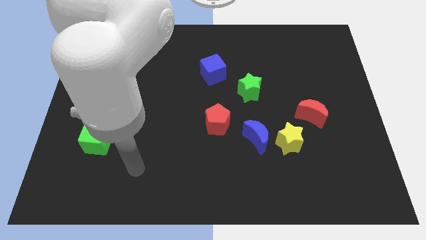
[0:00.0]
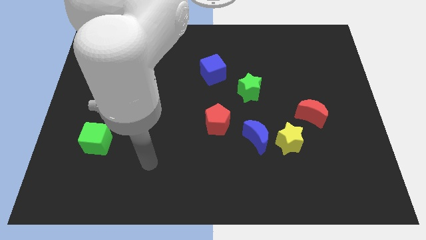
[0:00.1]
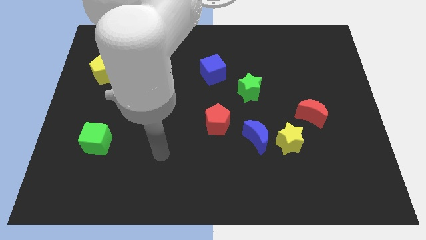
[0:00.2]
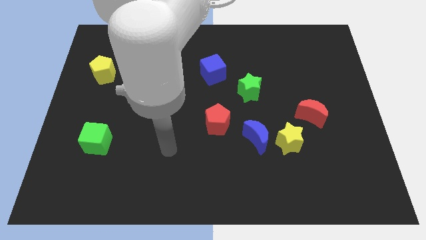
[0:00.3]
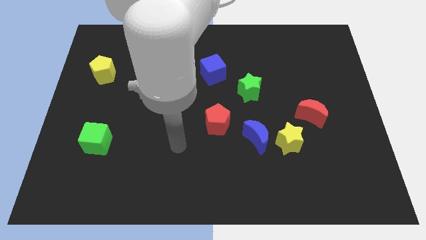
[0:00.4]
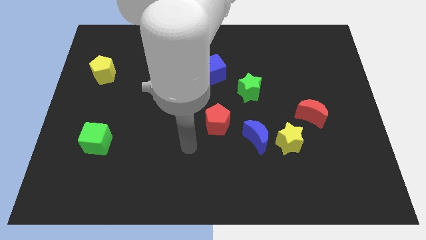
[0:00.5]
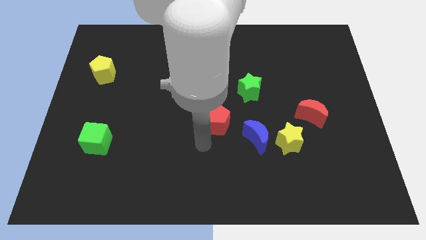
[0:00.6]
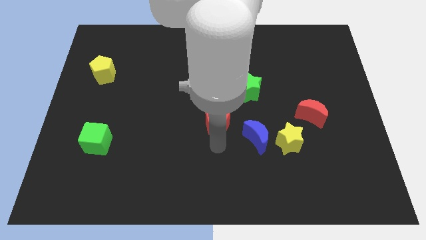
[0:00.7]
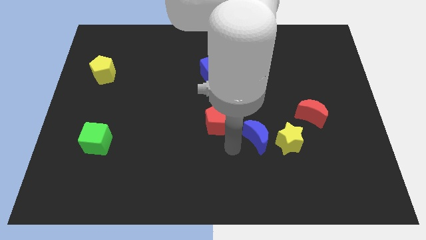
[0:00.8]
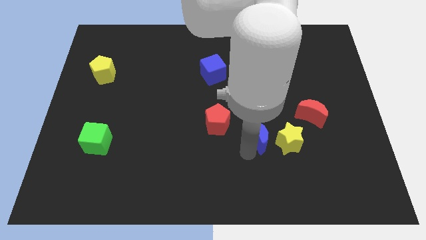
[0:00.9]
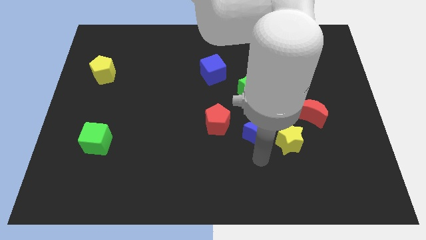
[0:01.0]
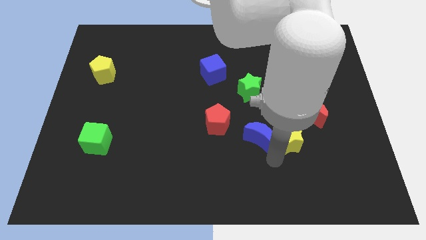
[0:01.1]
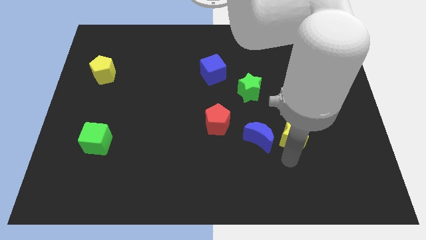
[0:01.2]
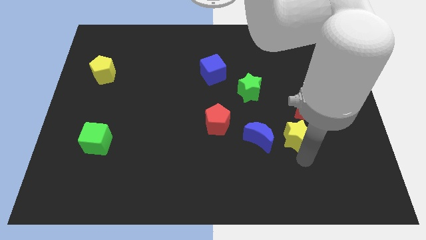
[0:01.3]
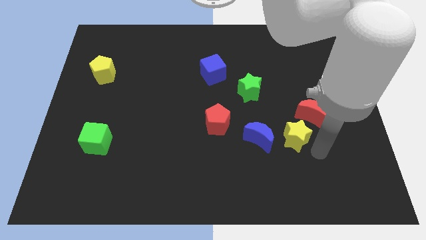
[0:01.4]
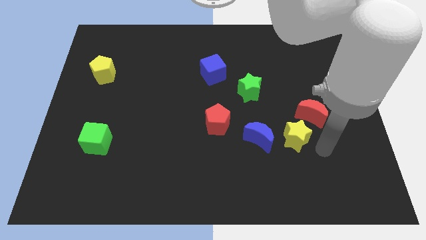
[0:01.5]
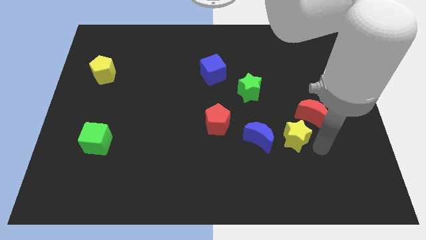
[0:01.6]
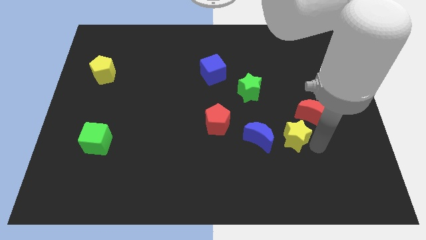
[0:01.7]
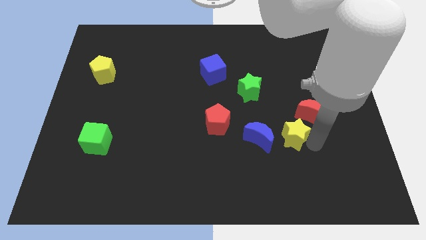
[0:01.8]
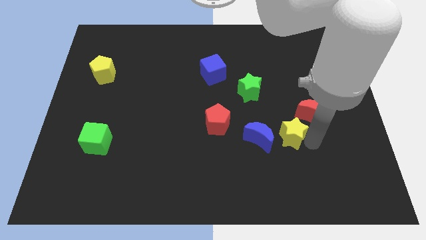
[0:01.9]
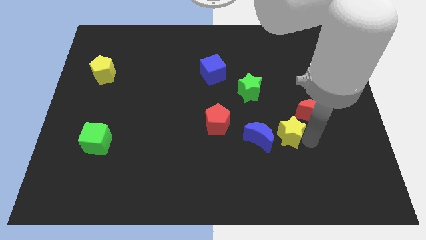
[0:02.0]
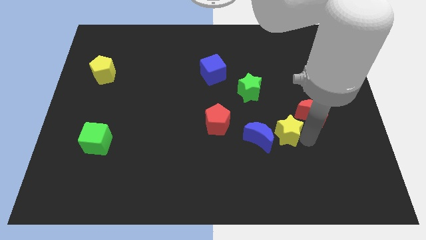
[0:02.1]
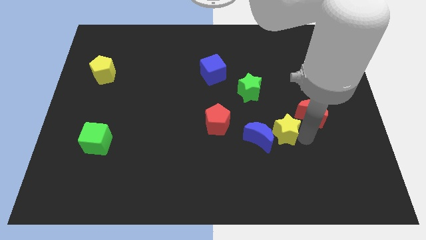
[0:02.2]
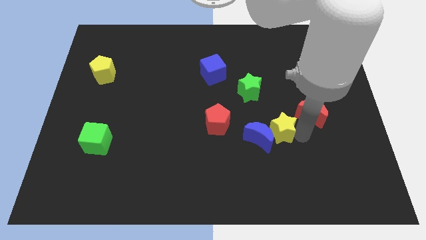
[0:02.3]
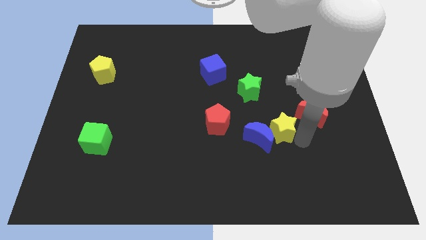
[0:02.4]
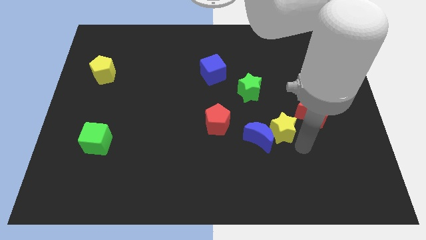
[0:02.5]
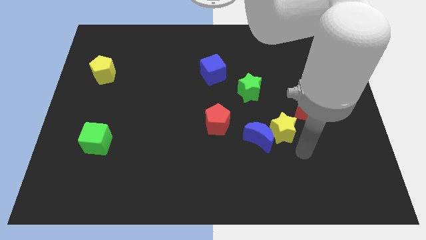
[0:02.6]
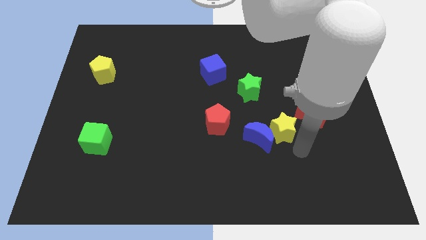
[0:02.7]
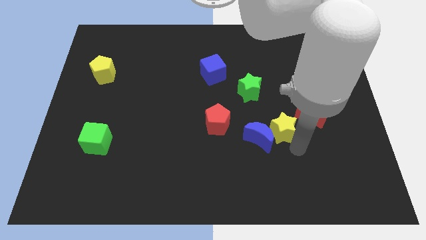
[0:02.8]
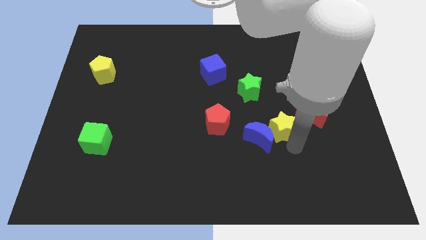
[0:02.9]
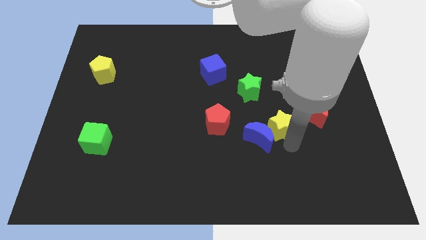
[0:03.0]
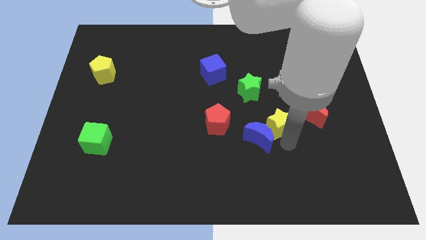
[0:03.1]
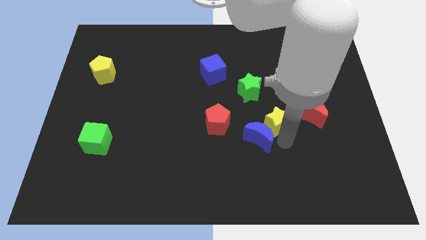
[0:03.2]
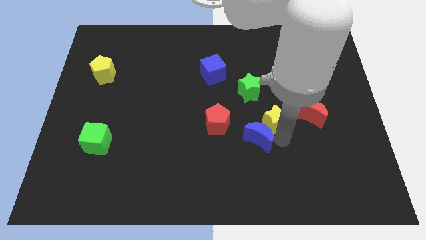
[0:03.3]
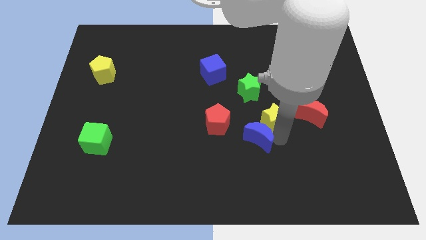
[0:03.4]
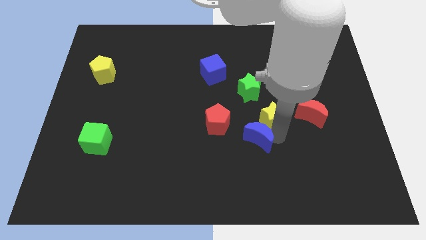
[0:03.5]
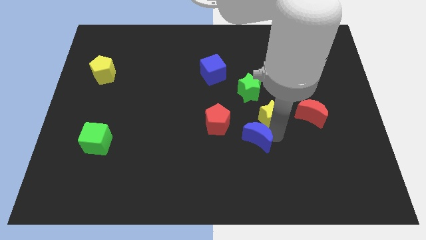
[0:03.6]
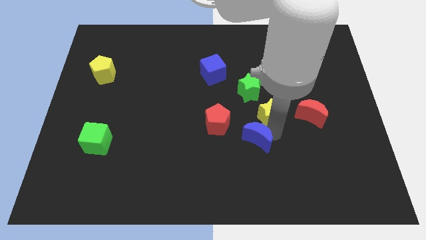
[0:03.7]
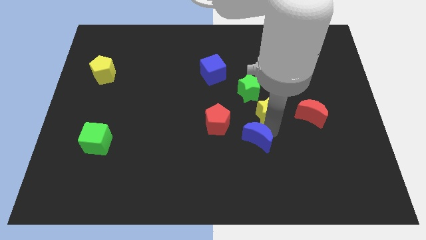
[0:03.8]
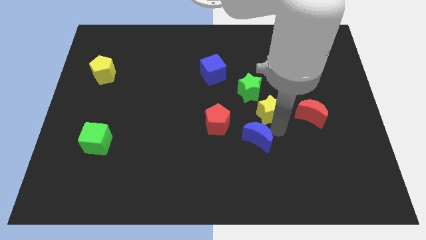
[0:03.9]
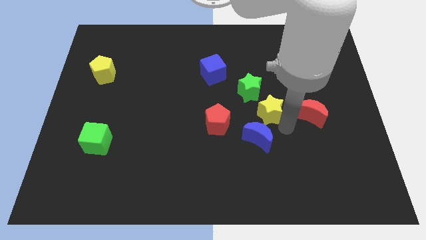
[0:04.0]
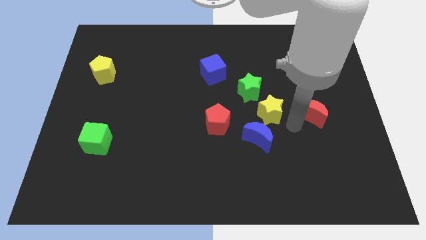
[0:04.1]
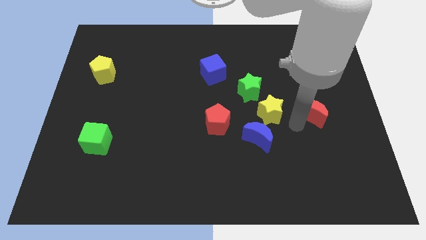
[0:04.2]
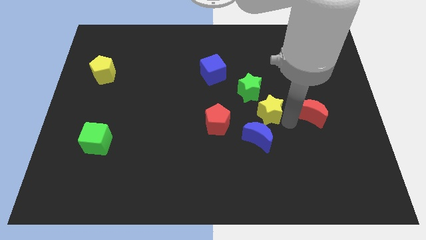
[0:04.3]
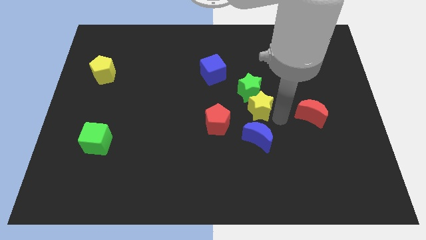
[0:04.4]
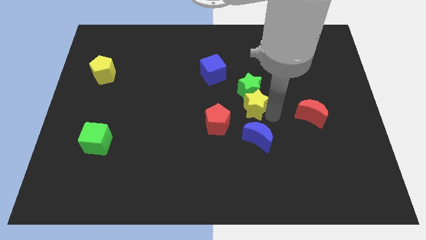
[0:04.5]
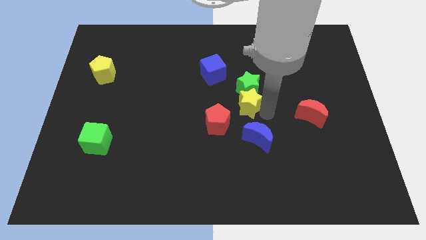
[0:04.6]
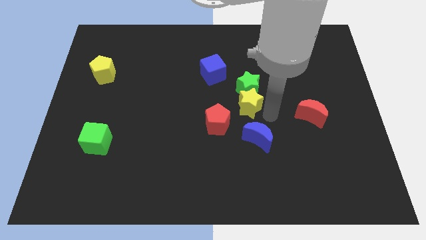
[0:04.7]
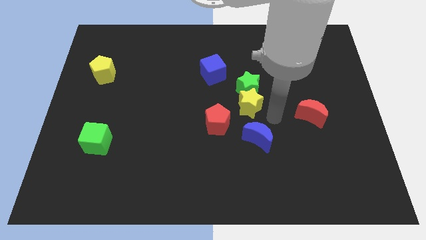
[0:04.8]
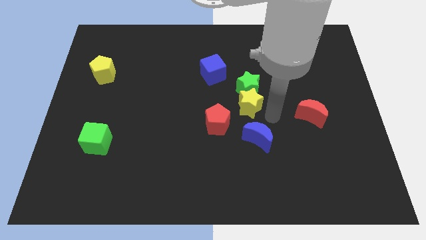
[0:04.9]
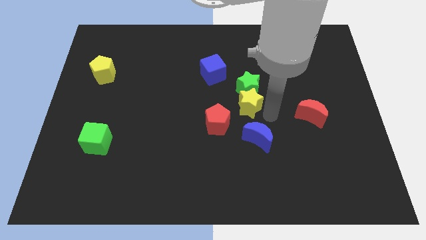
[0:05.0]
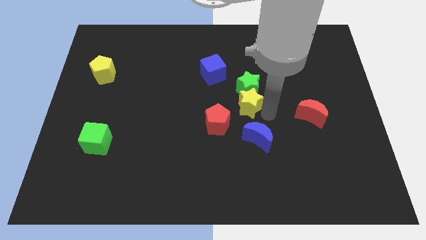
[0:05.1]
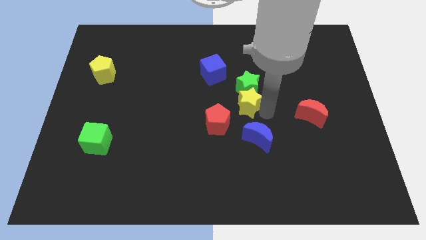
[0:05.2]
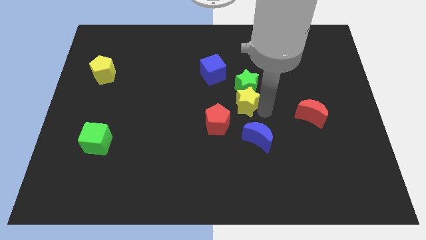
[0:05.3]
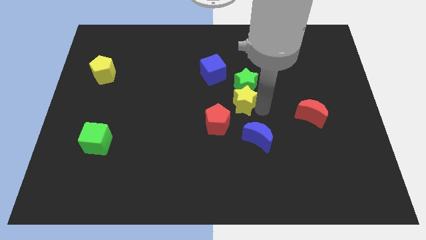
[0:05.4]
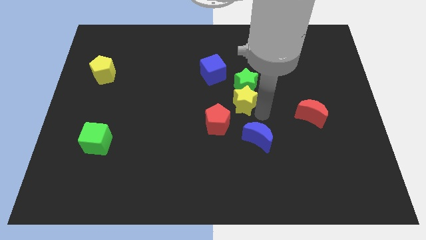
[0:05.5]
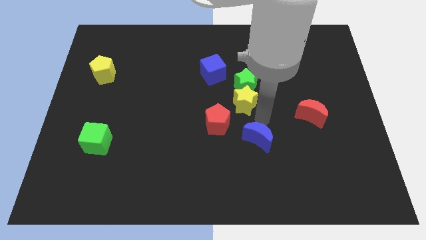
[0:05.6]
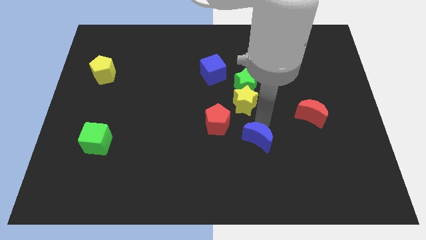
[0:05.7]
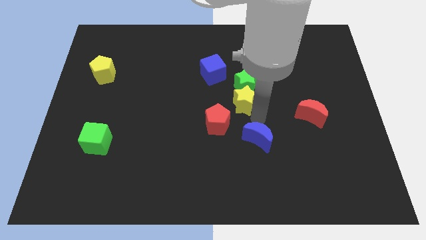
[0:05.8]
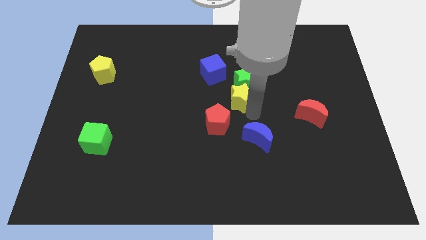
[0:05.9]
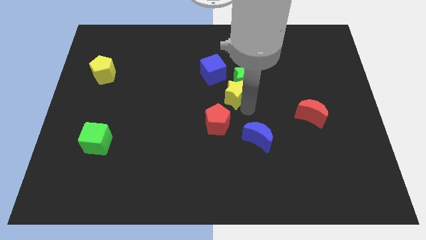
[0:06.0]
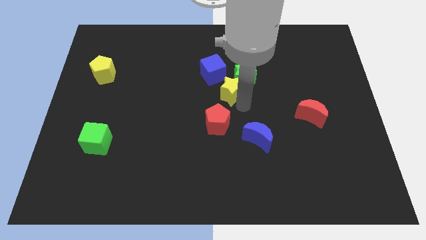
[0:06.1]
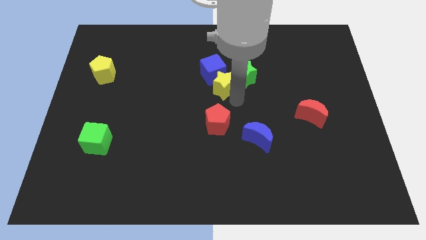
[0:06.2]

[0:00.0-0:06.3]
put the yellow star next to the blue cube

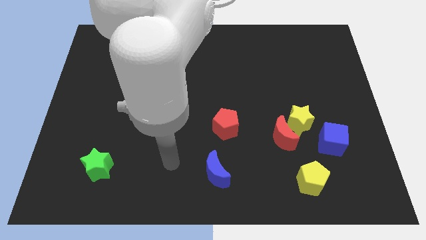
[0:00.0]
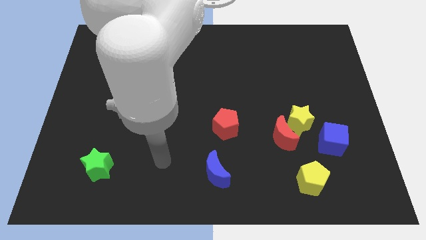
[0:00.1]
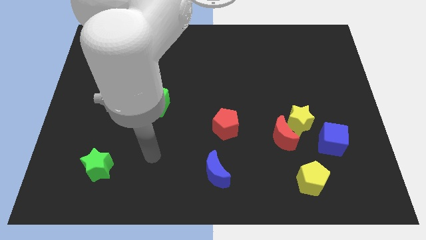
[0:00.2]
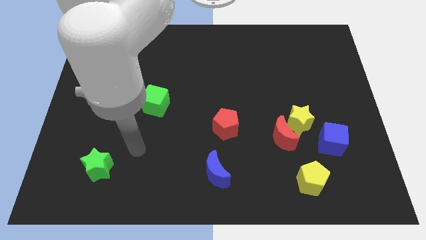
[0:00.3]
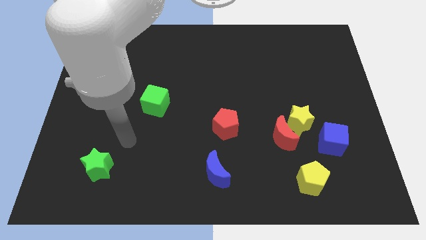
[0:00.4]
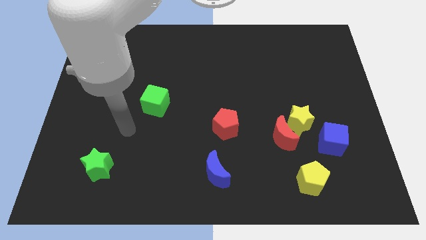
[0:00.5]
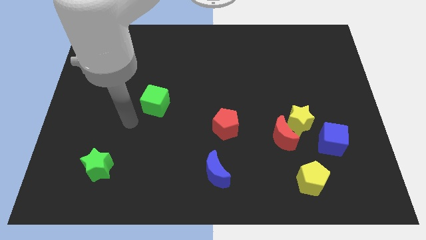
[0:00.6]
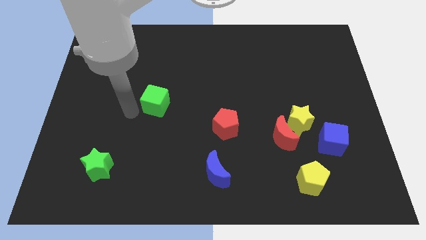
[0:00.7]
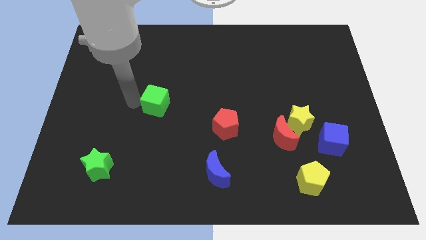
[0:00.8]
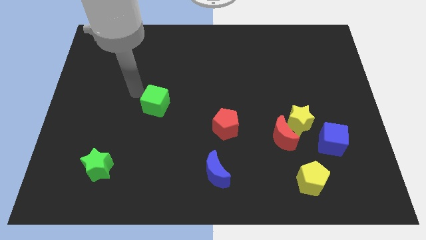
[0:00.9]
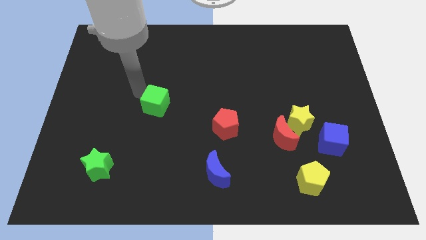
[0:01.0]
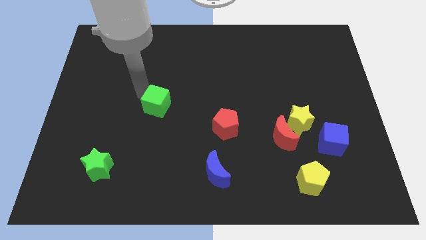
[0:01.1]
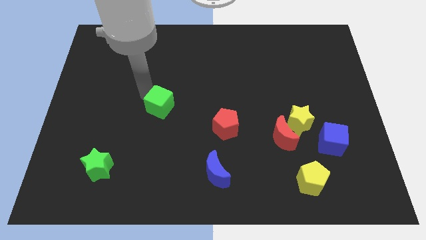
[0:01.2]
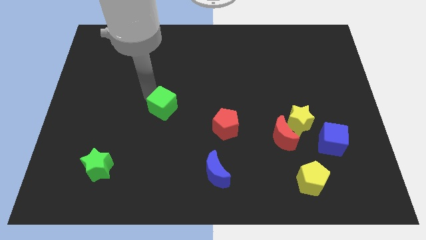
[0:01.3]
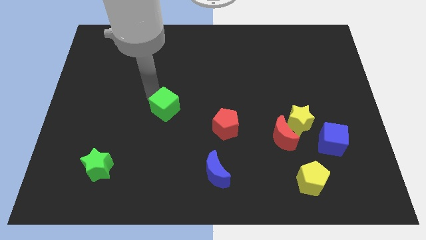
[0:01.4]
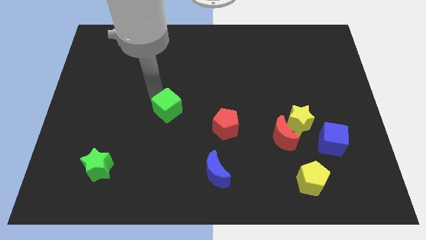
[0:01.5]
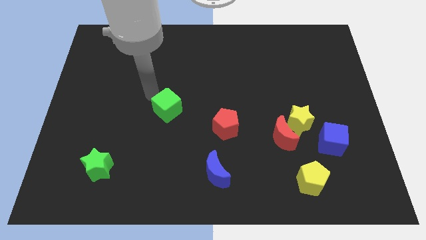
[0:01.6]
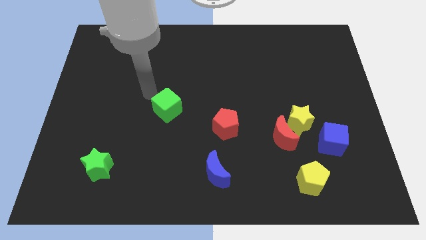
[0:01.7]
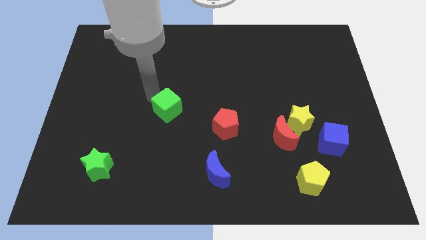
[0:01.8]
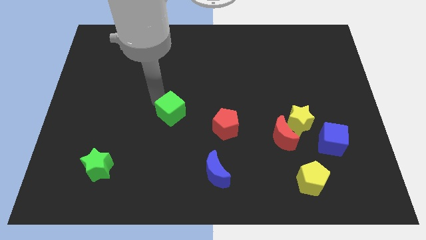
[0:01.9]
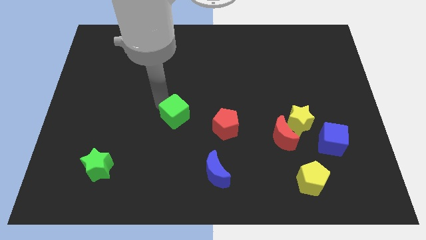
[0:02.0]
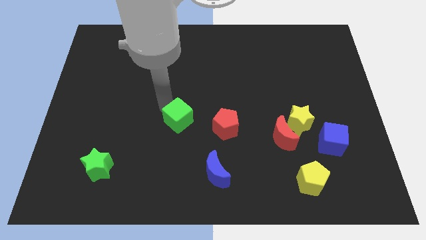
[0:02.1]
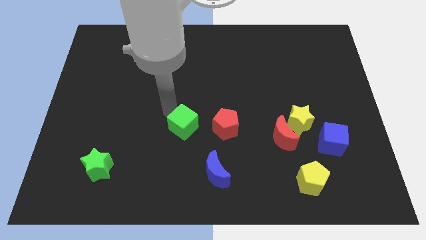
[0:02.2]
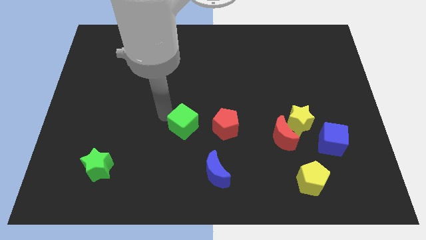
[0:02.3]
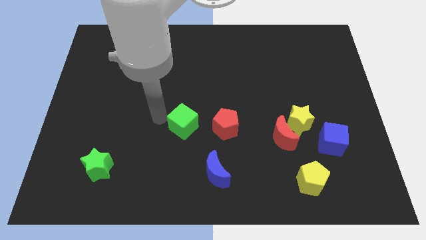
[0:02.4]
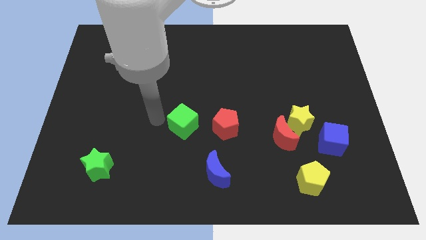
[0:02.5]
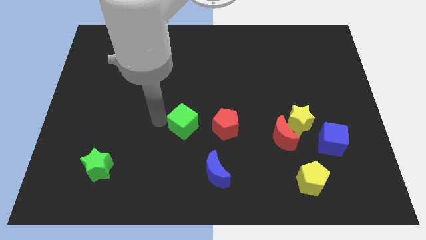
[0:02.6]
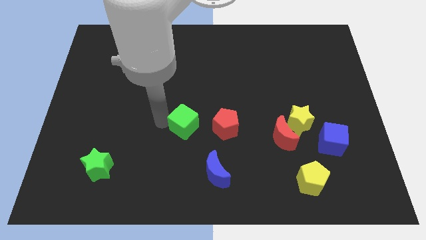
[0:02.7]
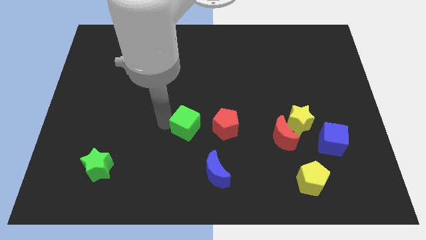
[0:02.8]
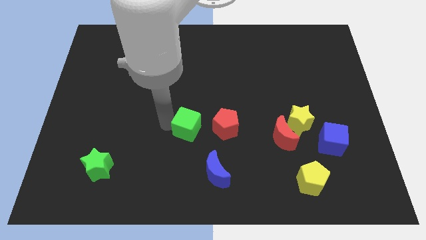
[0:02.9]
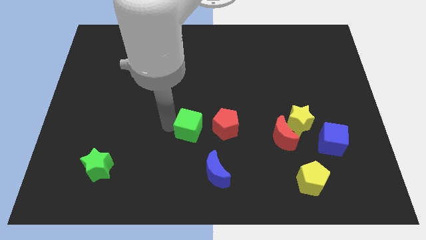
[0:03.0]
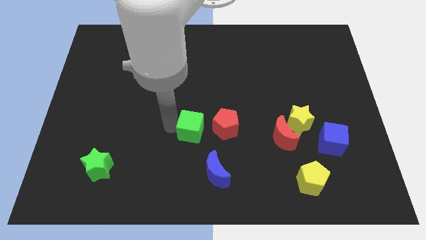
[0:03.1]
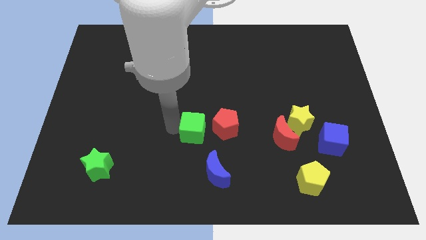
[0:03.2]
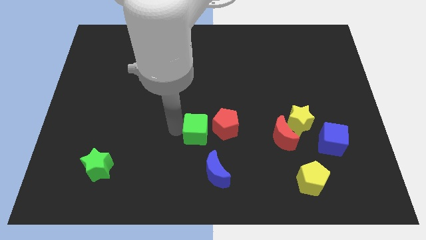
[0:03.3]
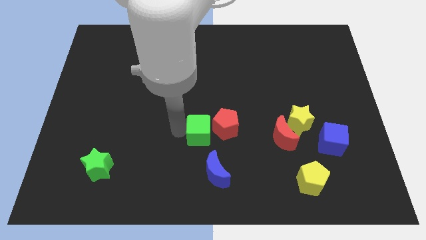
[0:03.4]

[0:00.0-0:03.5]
slide the green cube close to the red pentagon
